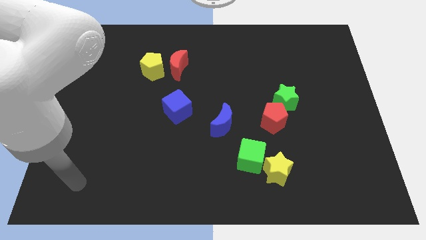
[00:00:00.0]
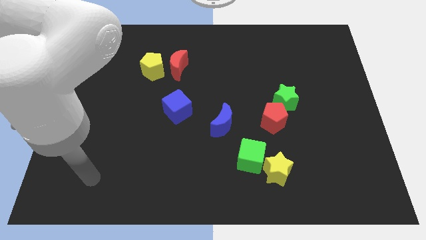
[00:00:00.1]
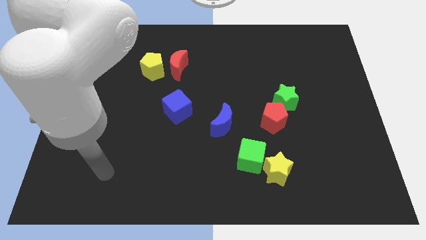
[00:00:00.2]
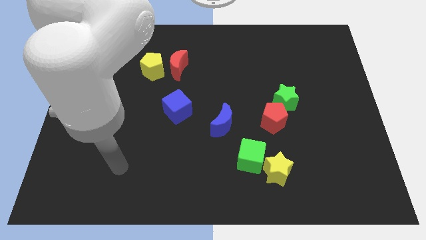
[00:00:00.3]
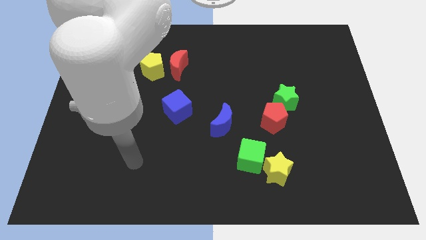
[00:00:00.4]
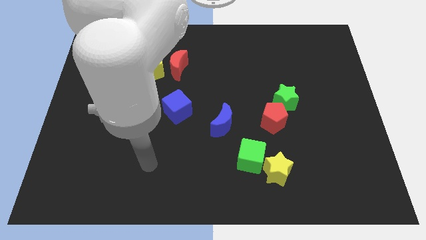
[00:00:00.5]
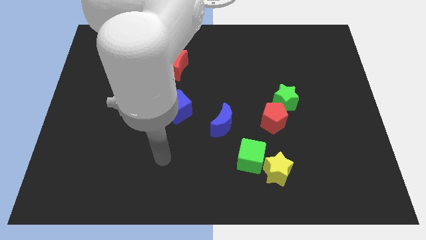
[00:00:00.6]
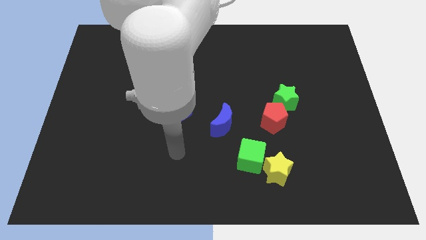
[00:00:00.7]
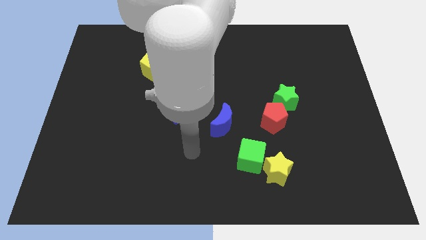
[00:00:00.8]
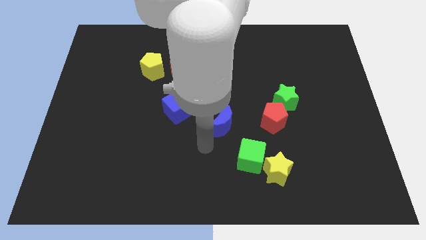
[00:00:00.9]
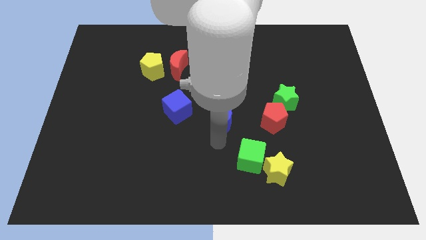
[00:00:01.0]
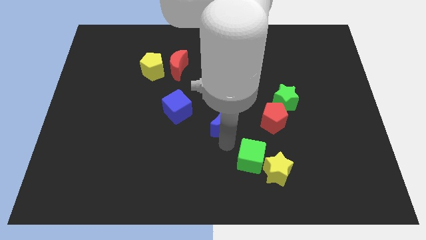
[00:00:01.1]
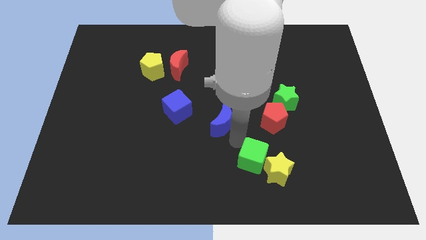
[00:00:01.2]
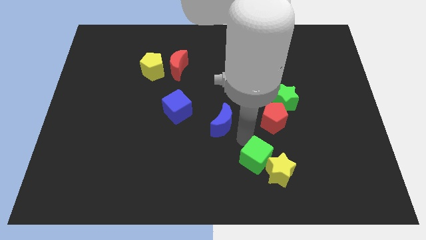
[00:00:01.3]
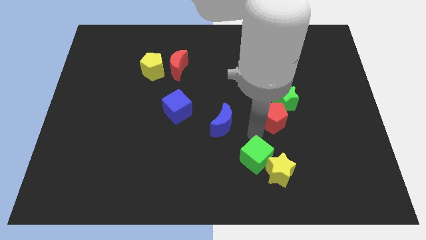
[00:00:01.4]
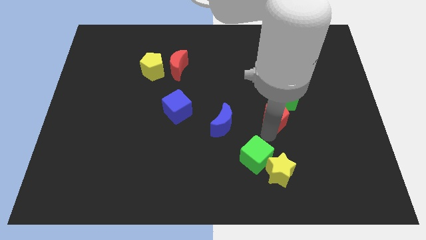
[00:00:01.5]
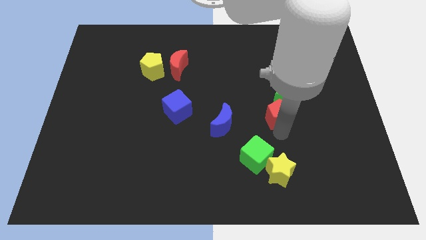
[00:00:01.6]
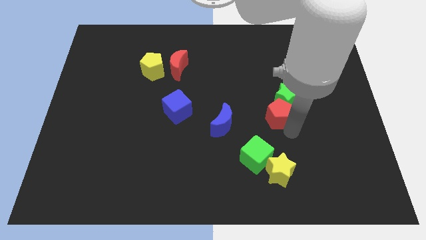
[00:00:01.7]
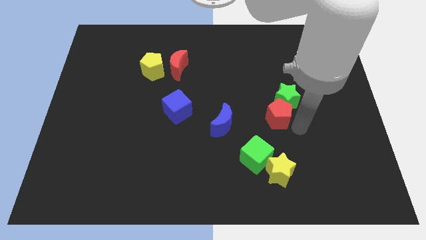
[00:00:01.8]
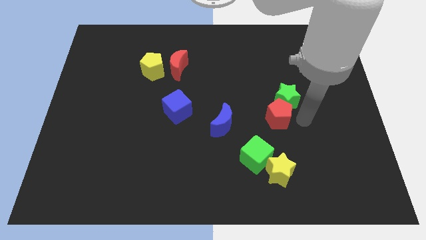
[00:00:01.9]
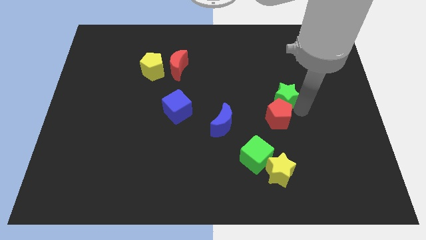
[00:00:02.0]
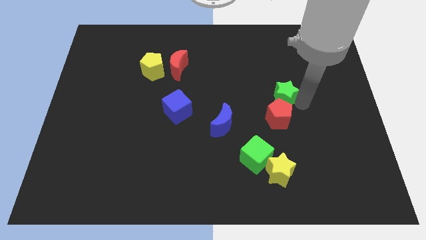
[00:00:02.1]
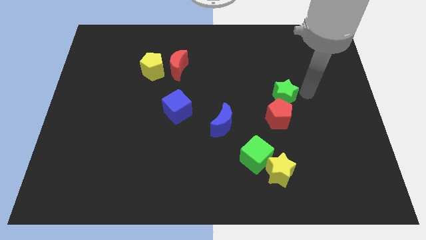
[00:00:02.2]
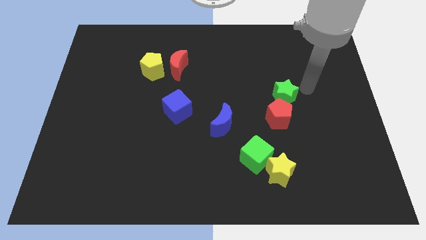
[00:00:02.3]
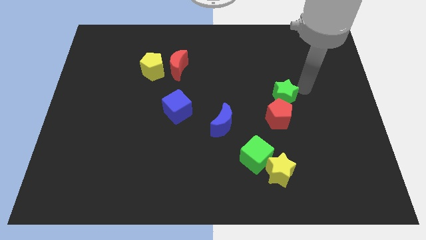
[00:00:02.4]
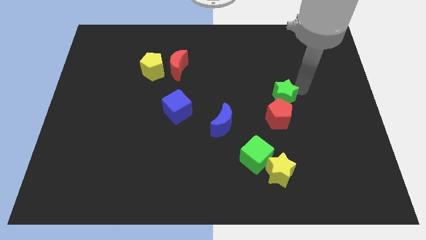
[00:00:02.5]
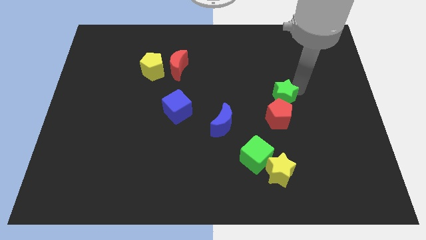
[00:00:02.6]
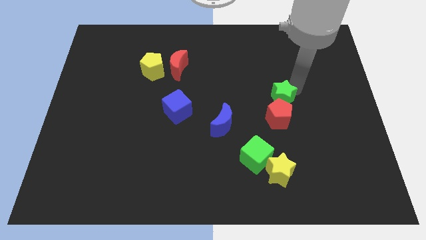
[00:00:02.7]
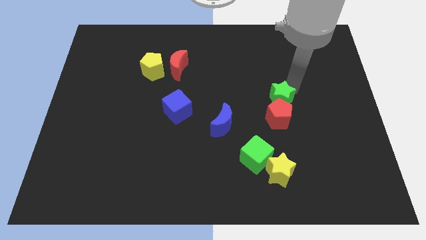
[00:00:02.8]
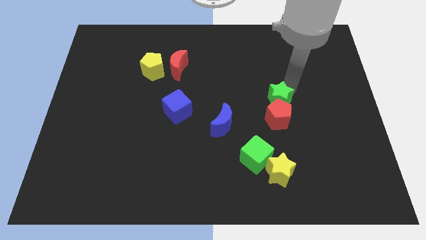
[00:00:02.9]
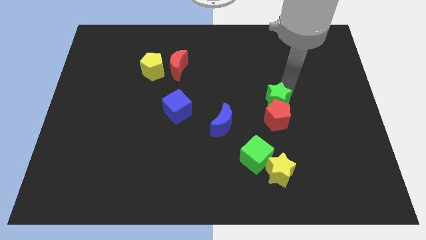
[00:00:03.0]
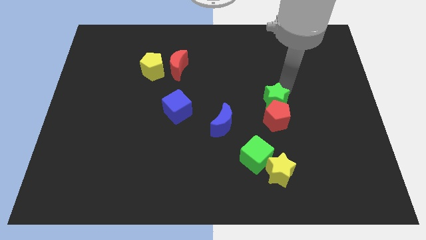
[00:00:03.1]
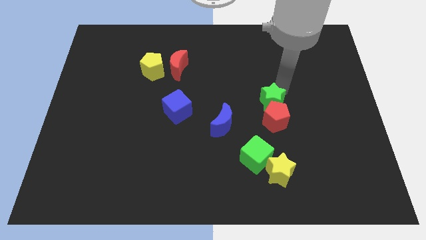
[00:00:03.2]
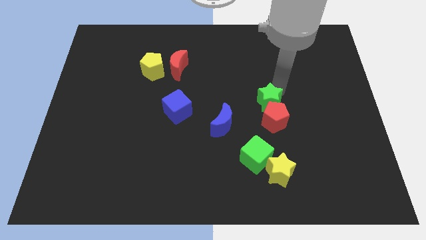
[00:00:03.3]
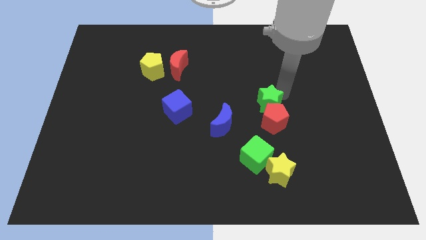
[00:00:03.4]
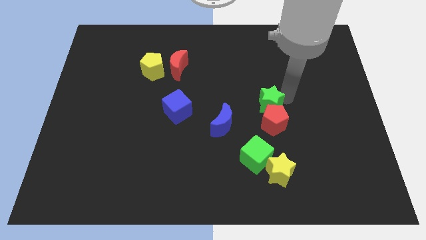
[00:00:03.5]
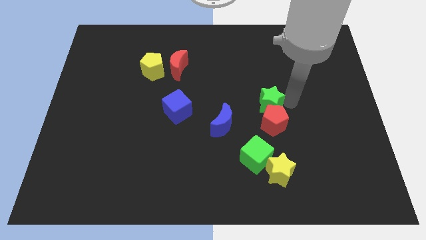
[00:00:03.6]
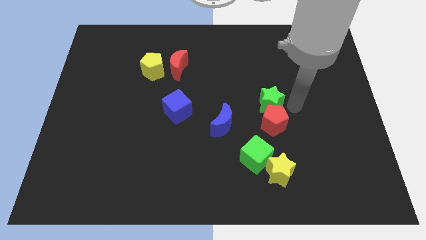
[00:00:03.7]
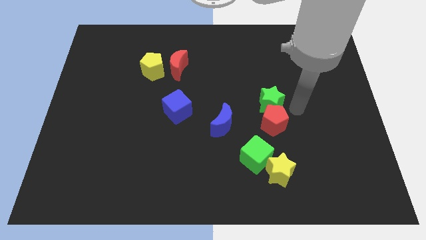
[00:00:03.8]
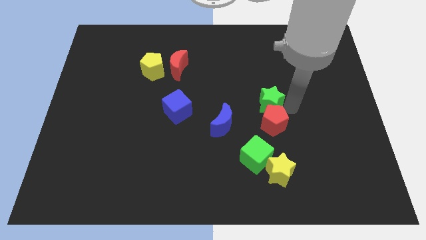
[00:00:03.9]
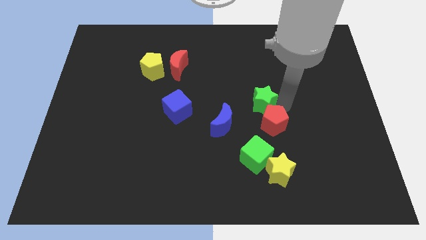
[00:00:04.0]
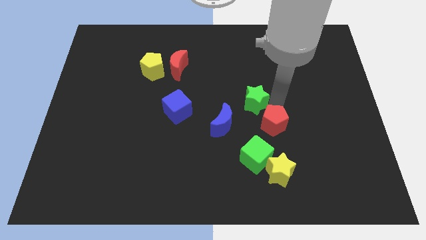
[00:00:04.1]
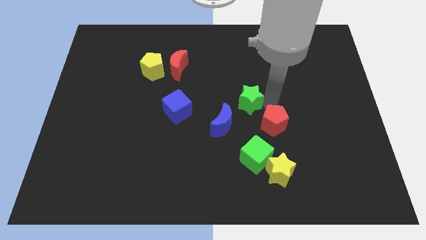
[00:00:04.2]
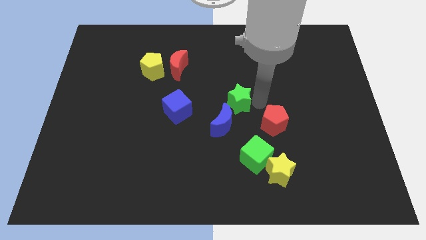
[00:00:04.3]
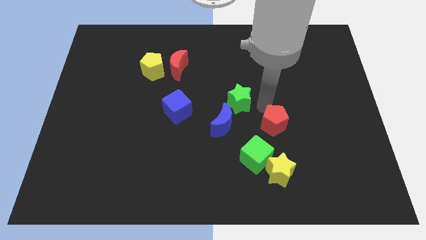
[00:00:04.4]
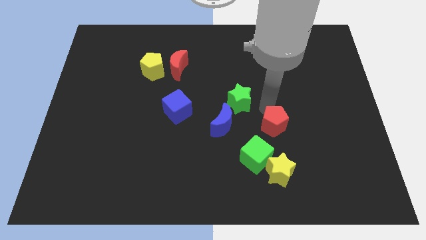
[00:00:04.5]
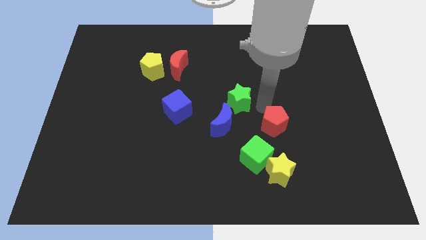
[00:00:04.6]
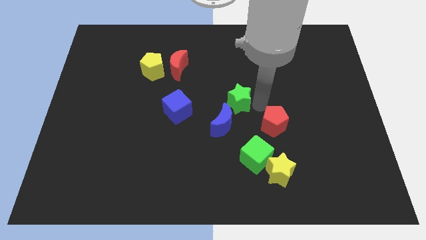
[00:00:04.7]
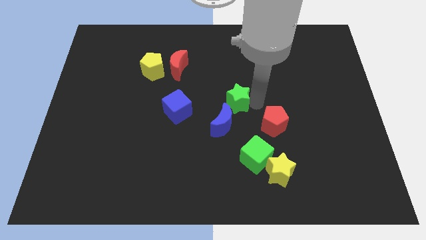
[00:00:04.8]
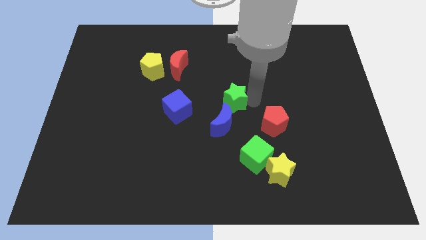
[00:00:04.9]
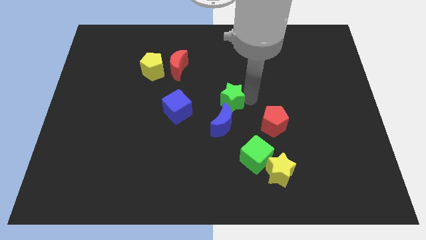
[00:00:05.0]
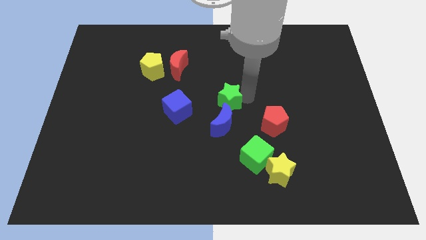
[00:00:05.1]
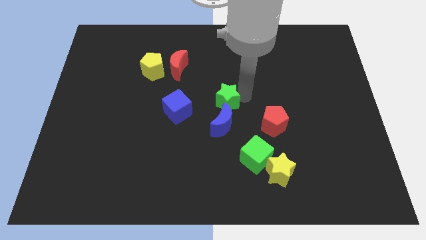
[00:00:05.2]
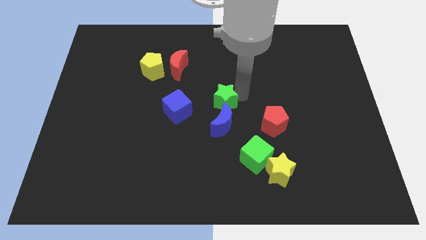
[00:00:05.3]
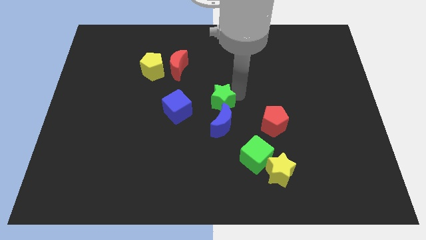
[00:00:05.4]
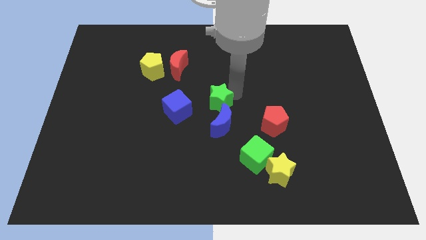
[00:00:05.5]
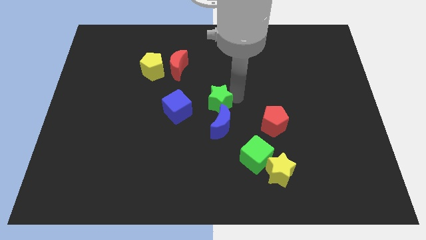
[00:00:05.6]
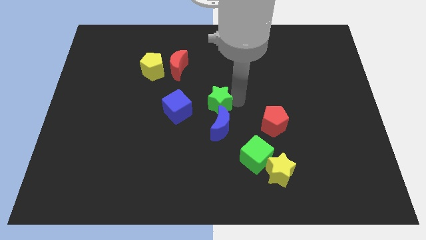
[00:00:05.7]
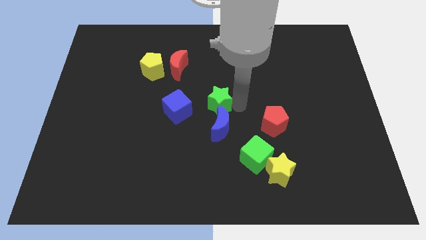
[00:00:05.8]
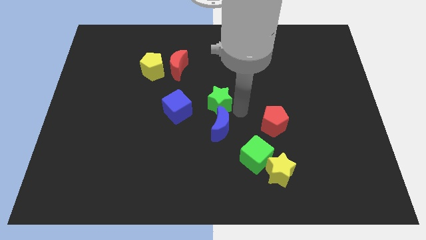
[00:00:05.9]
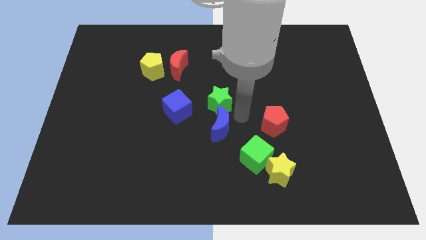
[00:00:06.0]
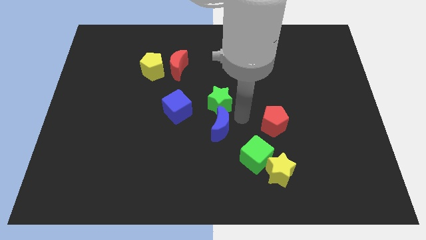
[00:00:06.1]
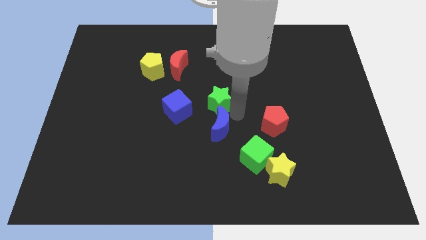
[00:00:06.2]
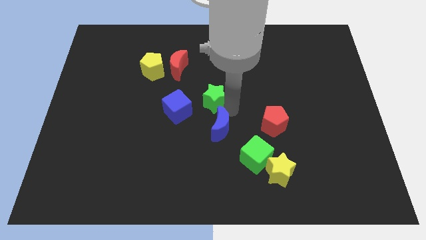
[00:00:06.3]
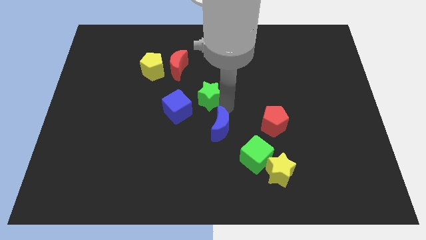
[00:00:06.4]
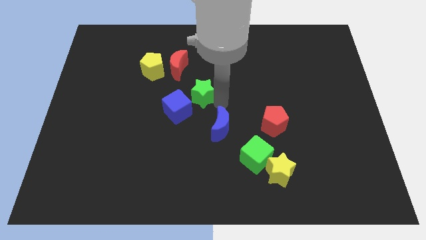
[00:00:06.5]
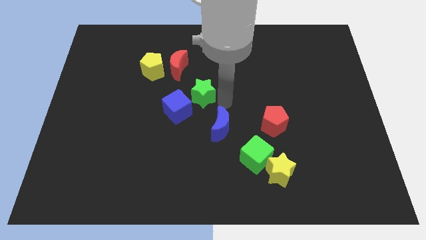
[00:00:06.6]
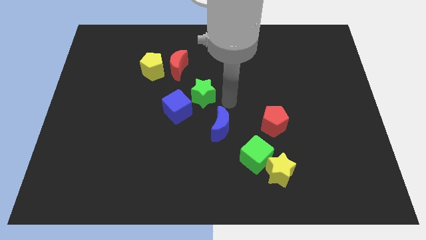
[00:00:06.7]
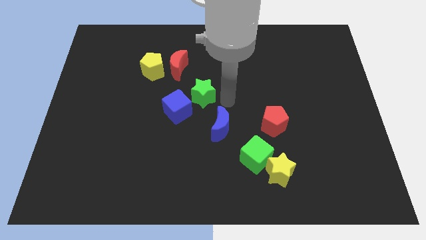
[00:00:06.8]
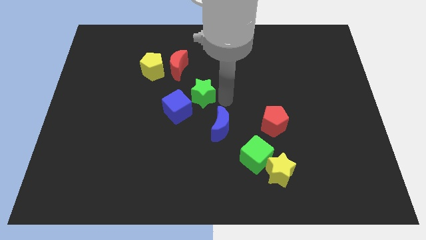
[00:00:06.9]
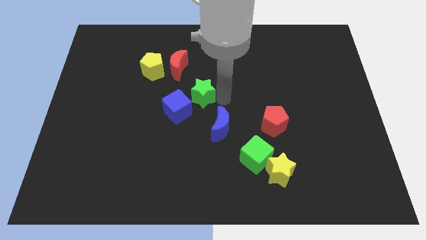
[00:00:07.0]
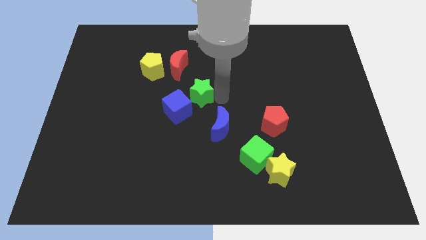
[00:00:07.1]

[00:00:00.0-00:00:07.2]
slide the green star left

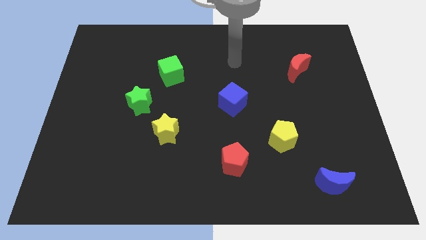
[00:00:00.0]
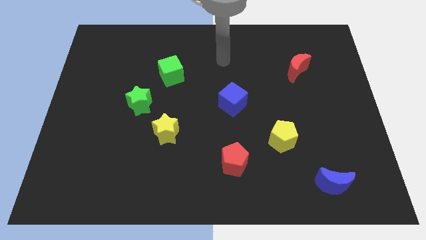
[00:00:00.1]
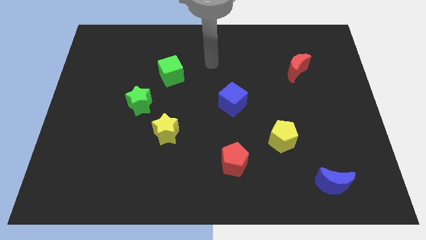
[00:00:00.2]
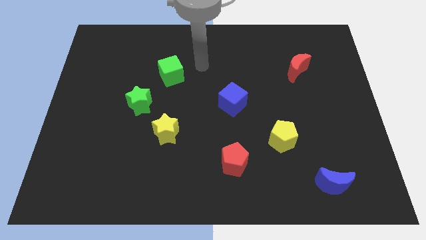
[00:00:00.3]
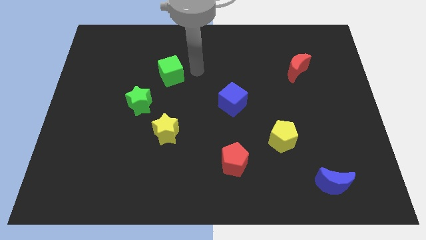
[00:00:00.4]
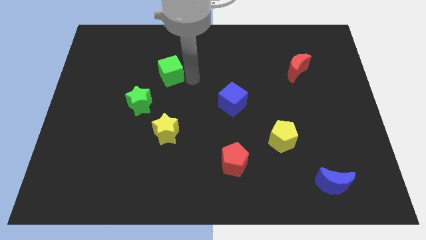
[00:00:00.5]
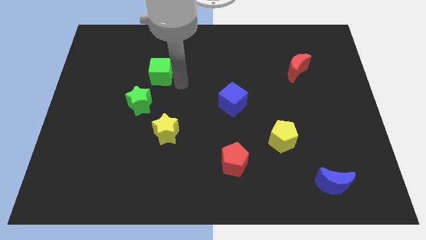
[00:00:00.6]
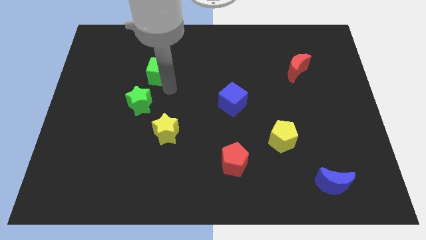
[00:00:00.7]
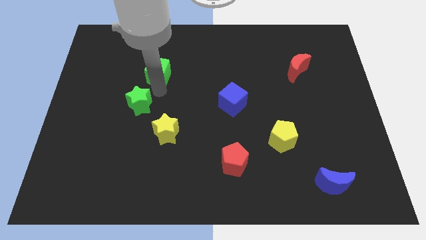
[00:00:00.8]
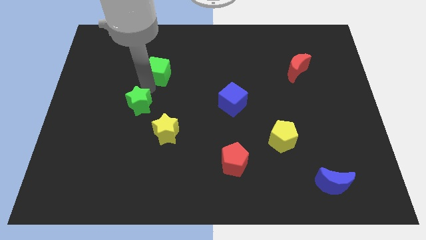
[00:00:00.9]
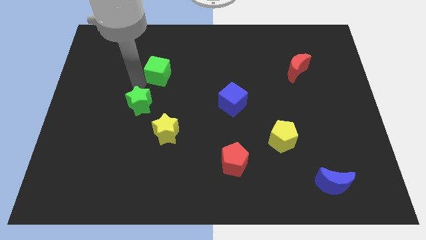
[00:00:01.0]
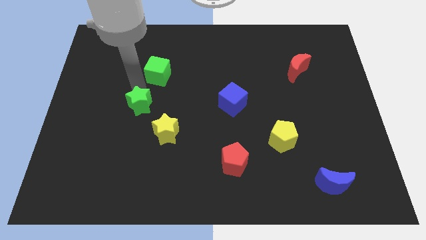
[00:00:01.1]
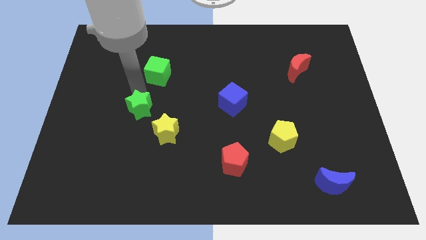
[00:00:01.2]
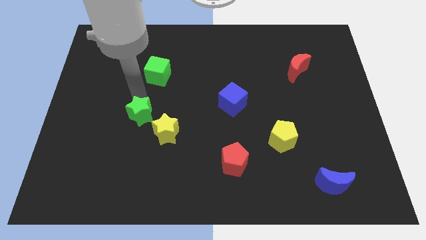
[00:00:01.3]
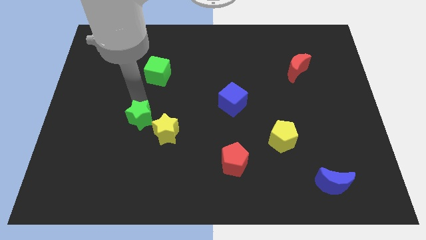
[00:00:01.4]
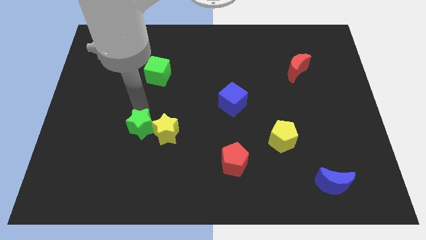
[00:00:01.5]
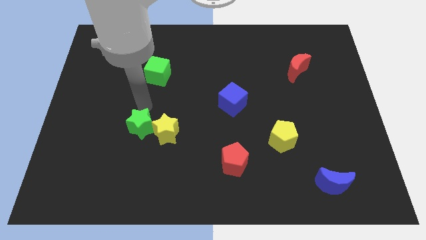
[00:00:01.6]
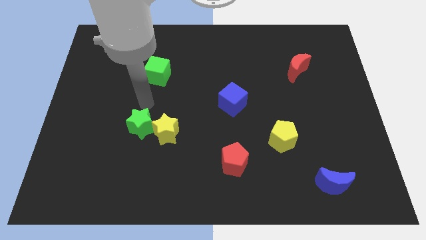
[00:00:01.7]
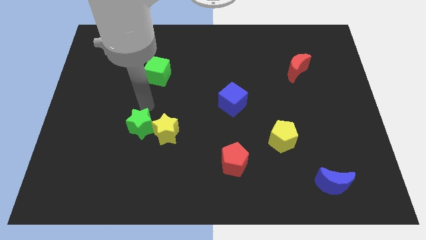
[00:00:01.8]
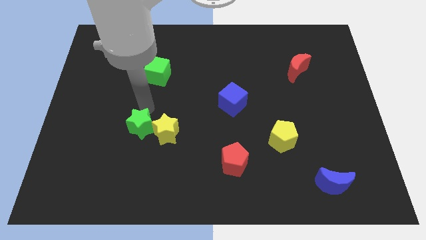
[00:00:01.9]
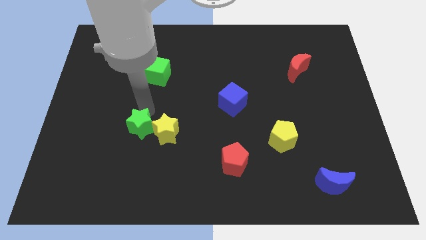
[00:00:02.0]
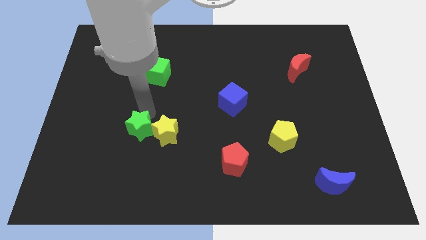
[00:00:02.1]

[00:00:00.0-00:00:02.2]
slightly slide the green star down
